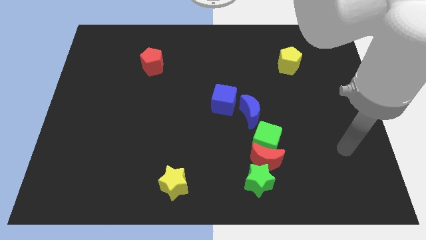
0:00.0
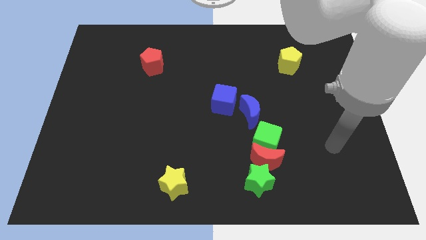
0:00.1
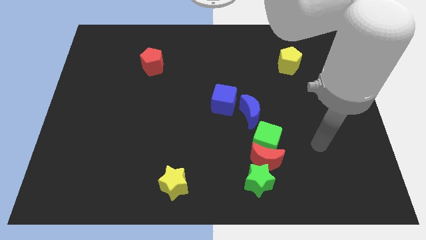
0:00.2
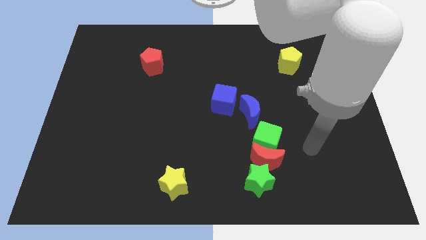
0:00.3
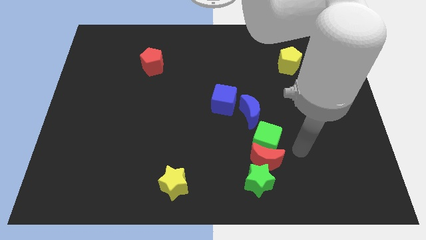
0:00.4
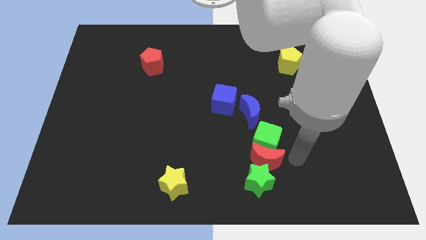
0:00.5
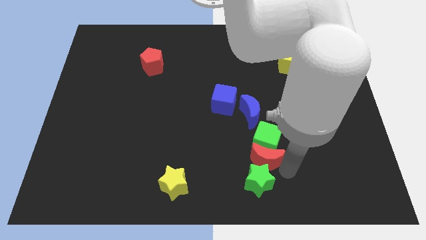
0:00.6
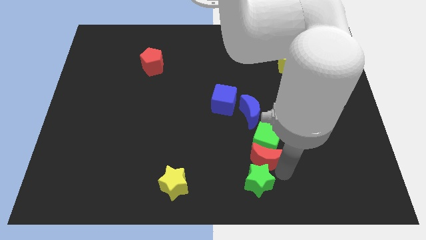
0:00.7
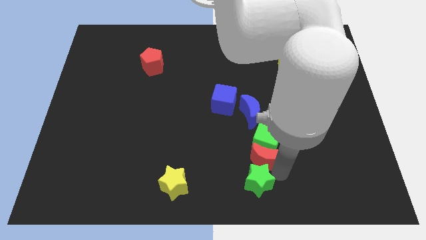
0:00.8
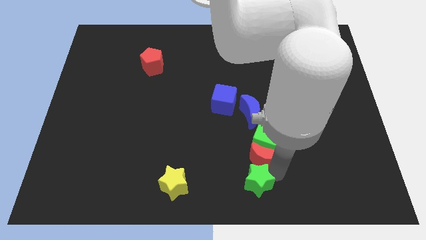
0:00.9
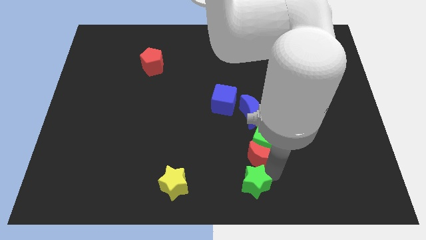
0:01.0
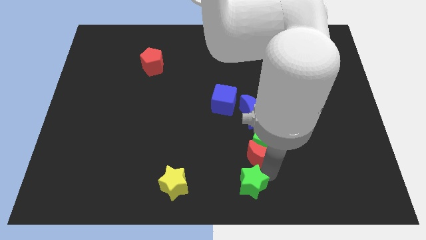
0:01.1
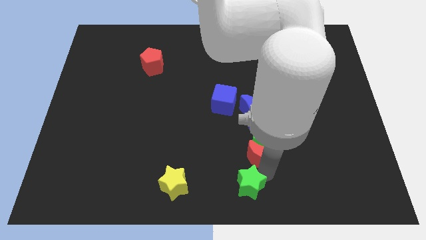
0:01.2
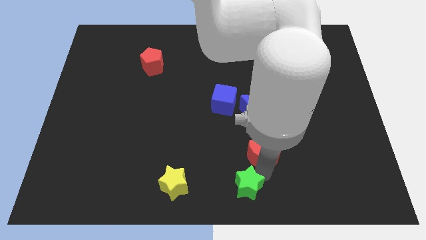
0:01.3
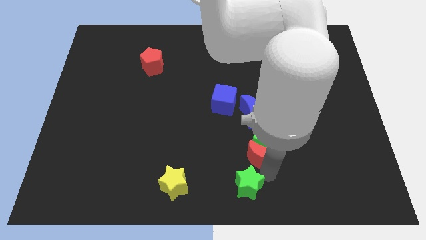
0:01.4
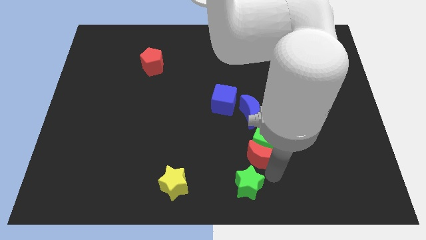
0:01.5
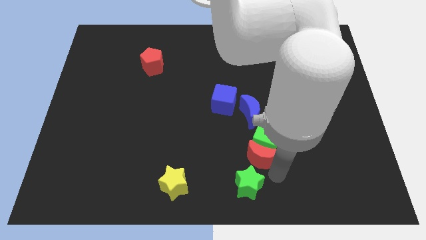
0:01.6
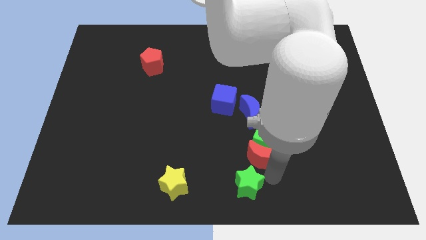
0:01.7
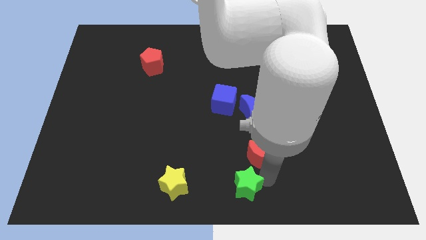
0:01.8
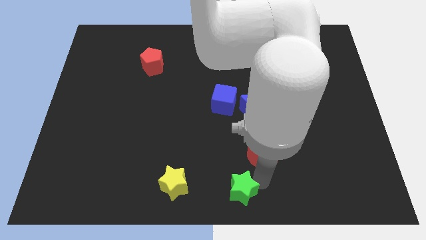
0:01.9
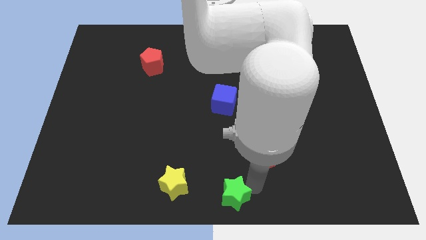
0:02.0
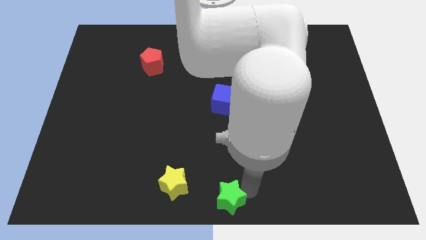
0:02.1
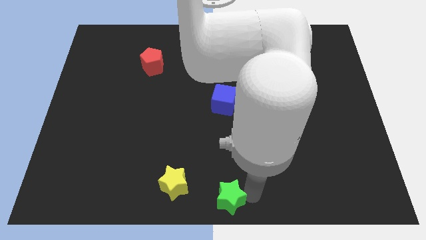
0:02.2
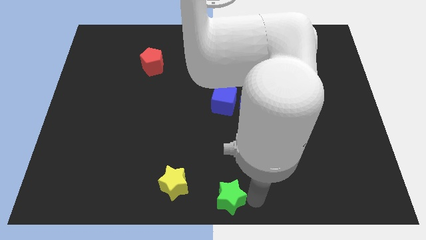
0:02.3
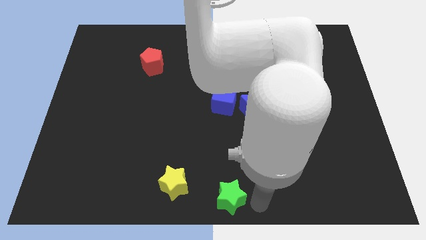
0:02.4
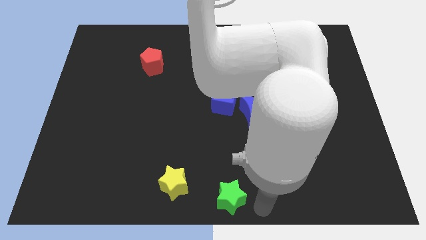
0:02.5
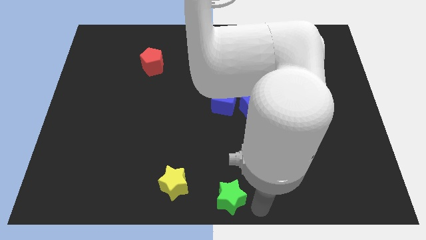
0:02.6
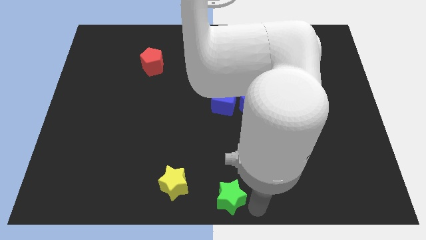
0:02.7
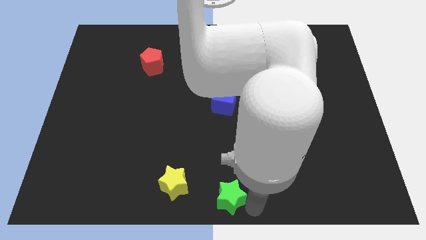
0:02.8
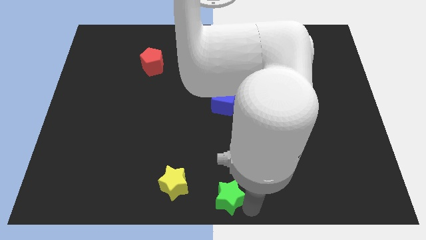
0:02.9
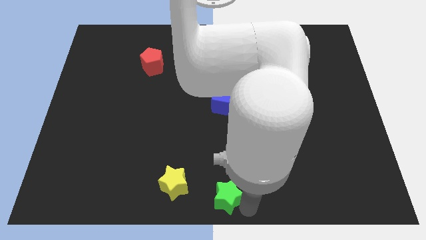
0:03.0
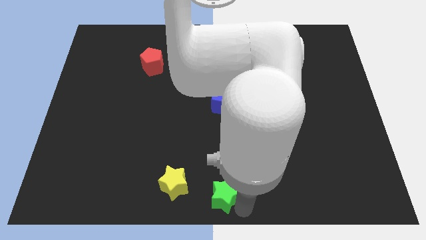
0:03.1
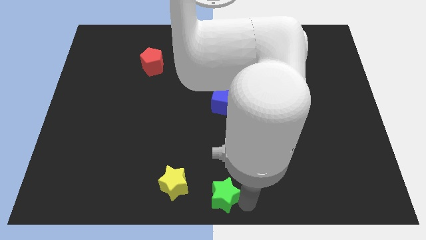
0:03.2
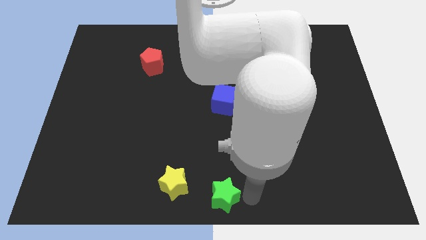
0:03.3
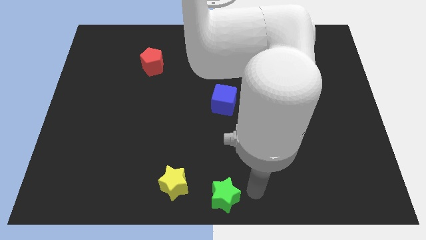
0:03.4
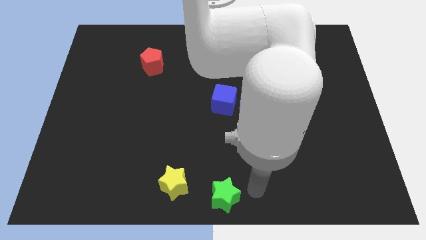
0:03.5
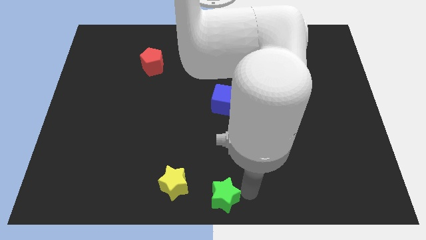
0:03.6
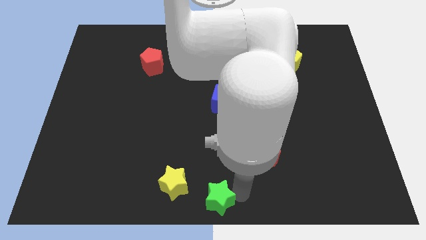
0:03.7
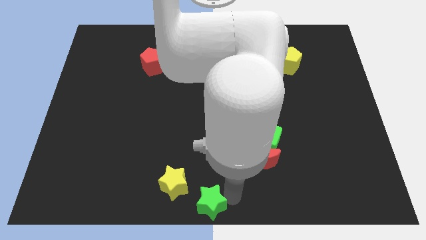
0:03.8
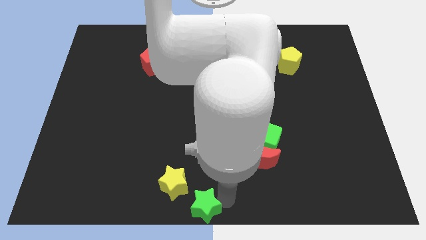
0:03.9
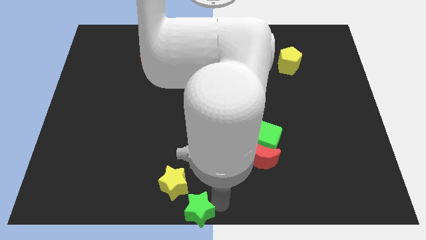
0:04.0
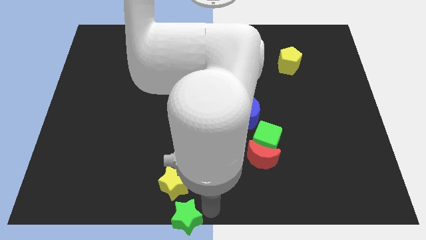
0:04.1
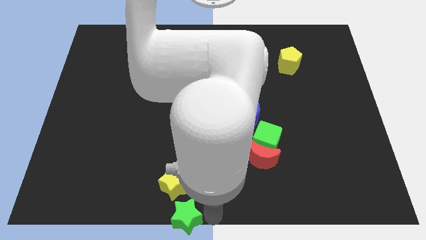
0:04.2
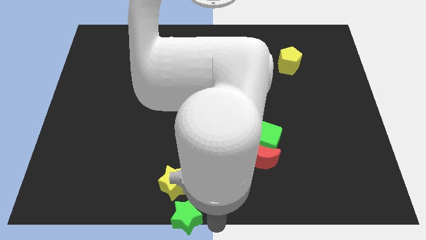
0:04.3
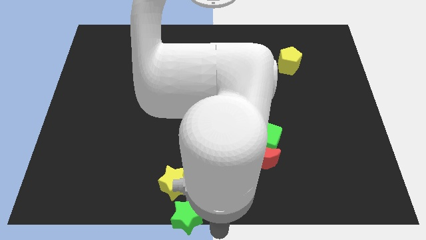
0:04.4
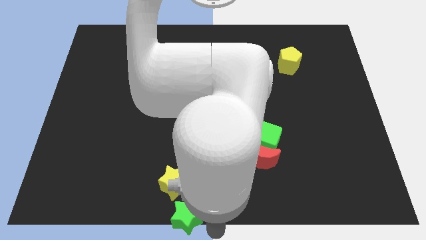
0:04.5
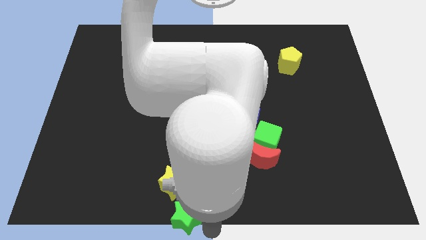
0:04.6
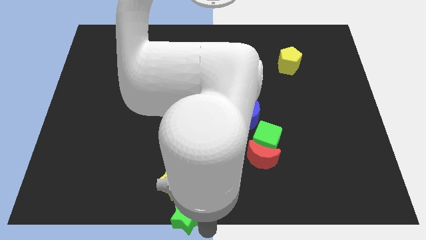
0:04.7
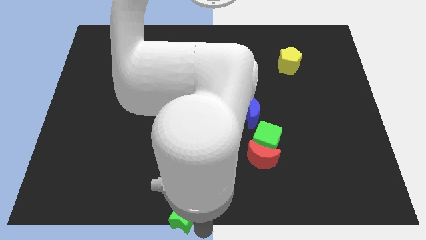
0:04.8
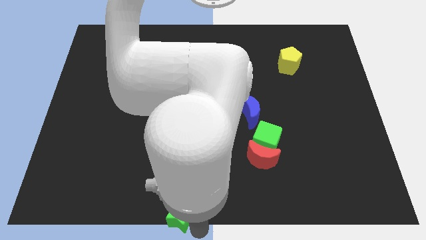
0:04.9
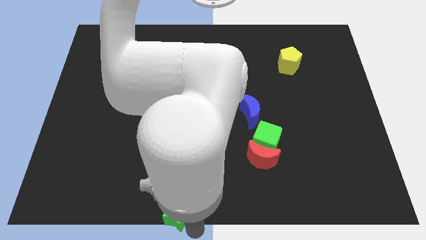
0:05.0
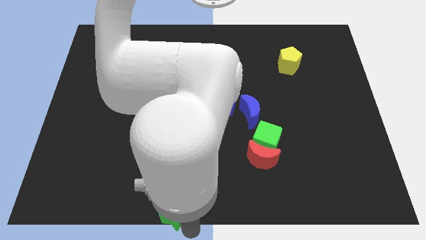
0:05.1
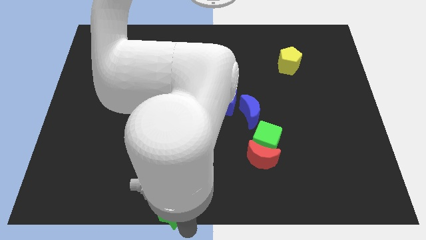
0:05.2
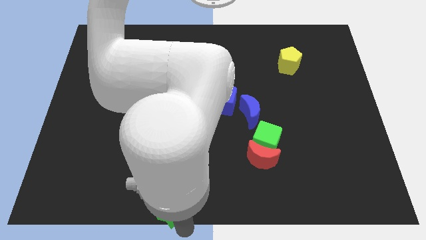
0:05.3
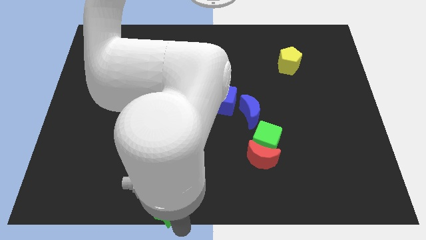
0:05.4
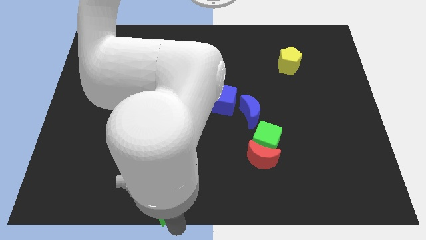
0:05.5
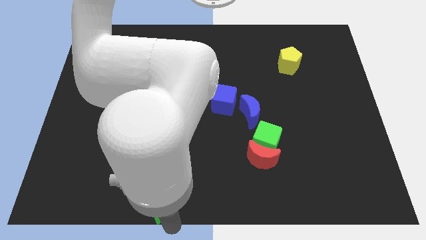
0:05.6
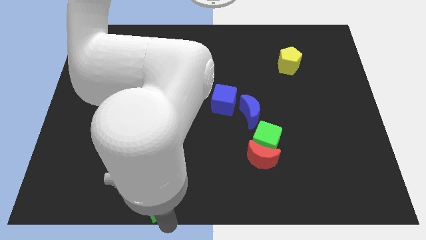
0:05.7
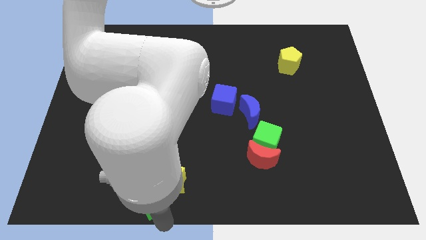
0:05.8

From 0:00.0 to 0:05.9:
slide the green star left

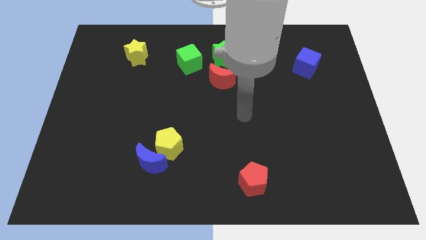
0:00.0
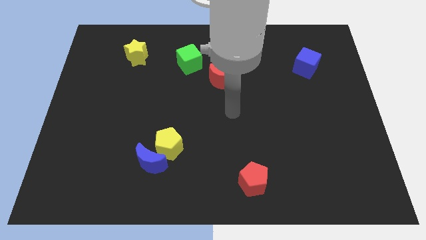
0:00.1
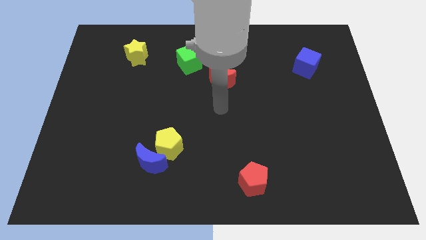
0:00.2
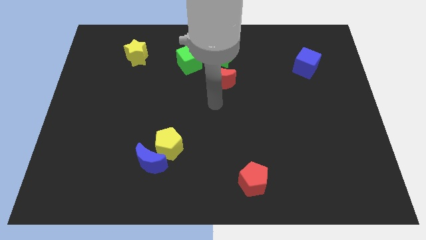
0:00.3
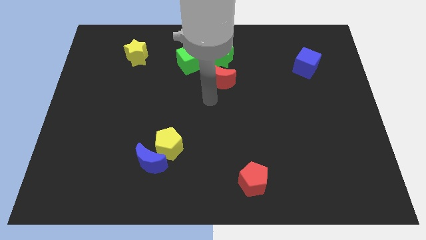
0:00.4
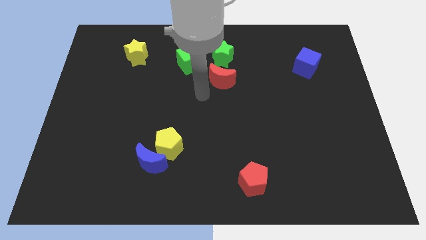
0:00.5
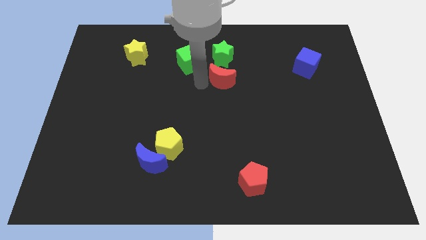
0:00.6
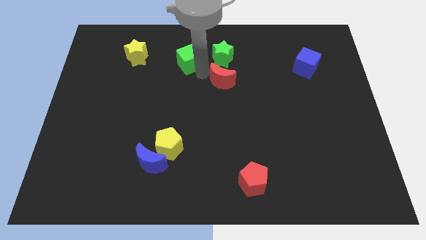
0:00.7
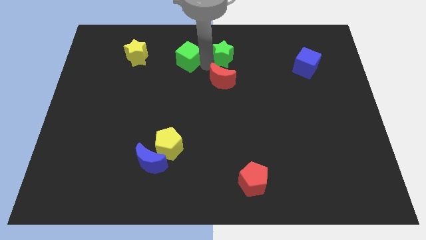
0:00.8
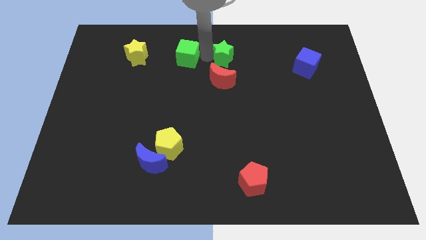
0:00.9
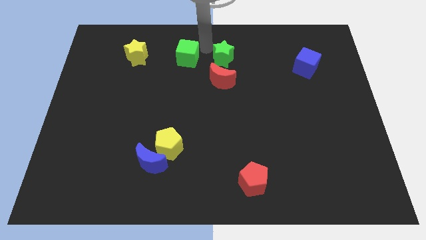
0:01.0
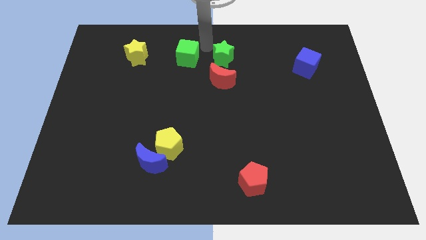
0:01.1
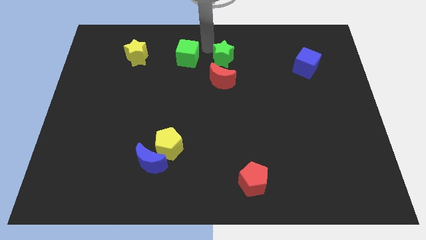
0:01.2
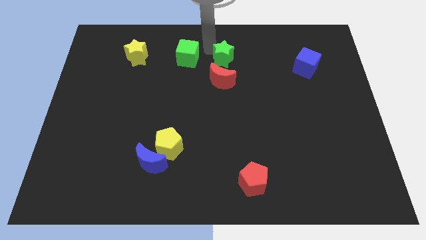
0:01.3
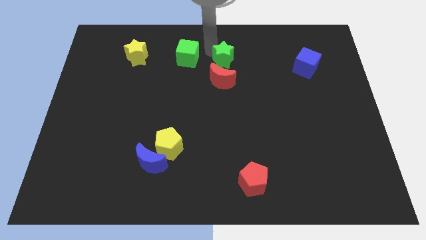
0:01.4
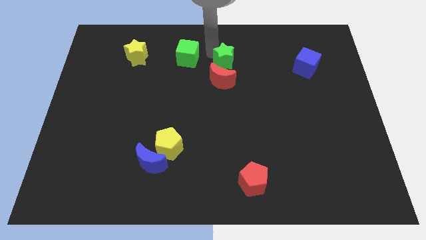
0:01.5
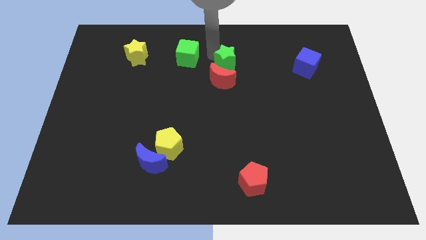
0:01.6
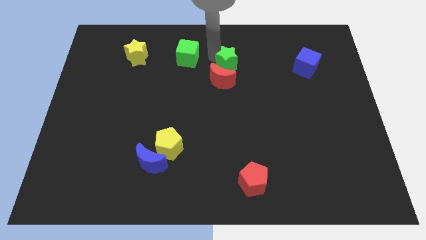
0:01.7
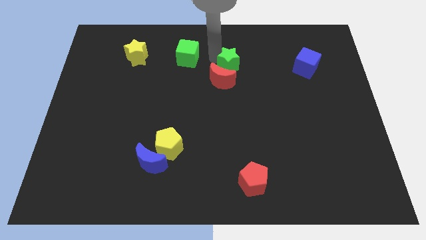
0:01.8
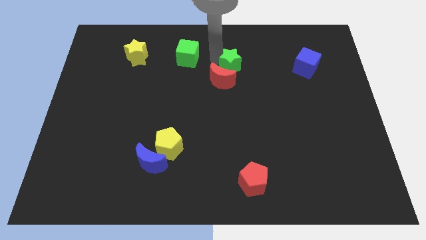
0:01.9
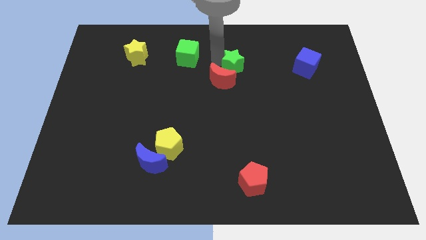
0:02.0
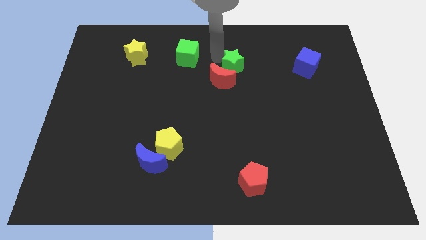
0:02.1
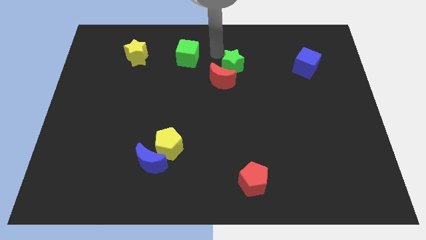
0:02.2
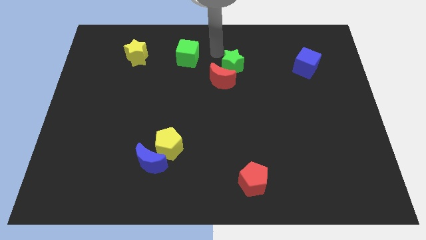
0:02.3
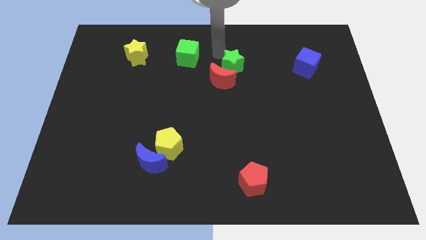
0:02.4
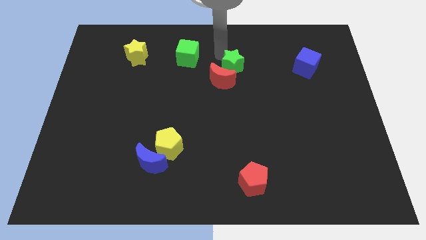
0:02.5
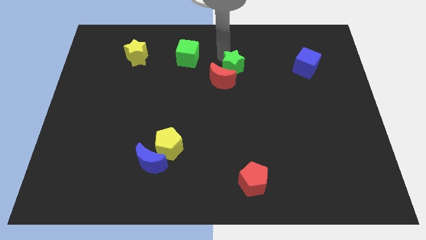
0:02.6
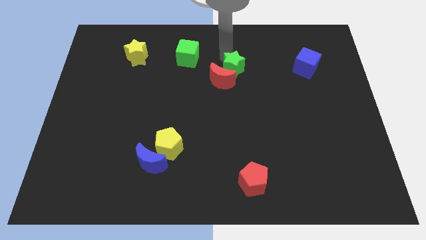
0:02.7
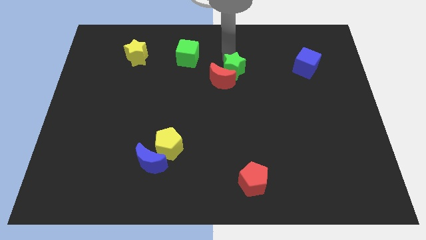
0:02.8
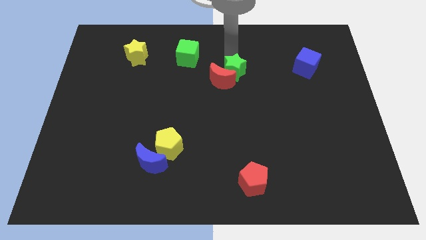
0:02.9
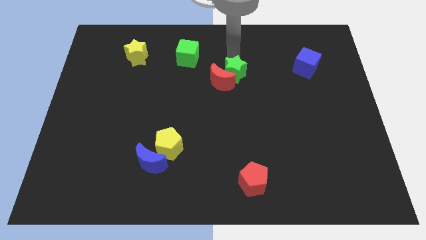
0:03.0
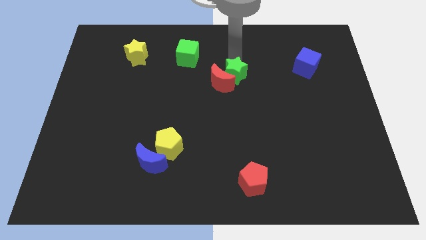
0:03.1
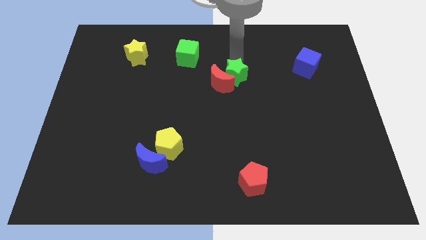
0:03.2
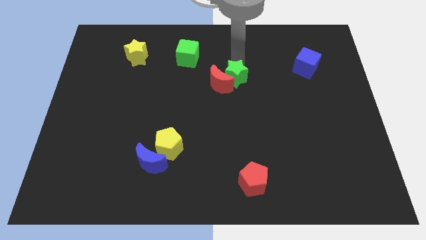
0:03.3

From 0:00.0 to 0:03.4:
push the green star down and then to the right somewhat
